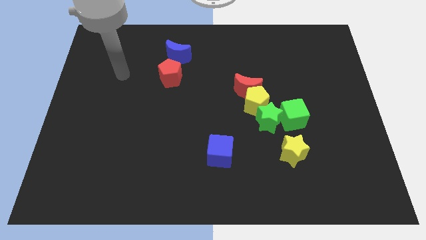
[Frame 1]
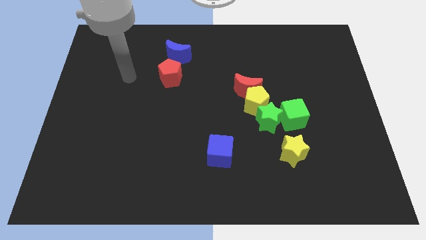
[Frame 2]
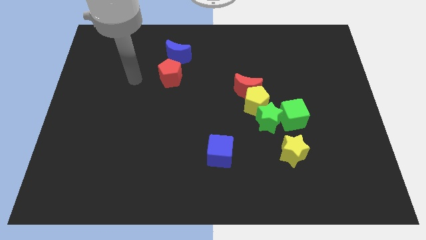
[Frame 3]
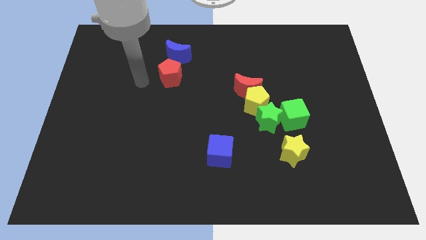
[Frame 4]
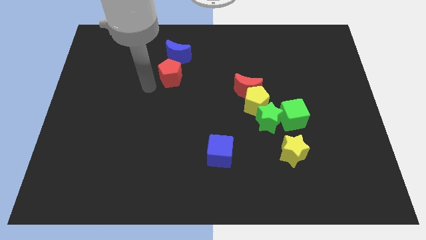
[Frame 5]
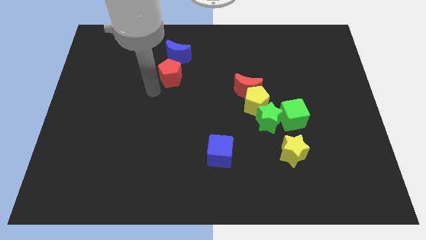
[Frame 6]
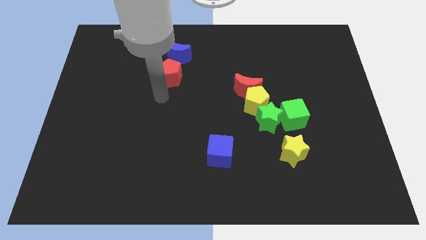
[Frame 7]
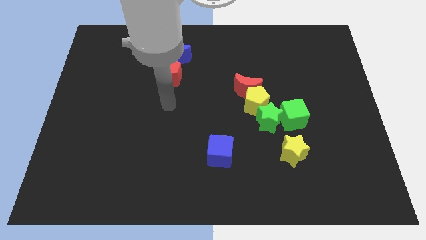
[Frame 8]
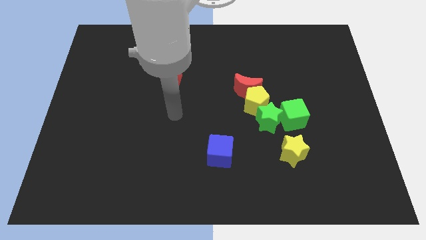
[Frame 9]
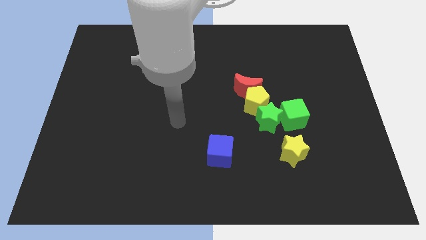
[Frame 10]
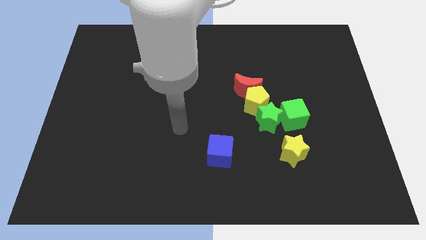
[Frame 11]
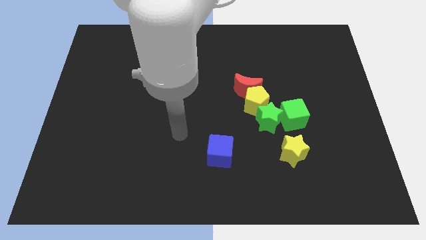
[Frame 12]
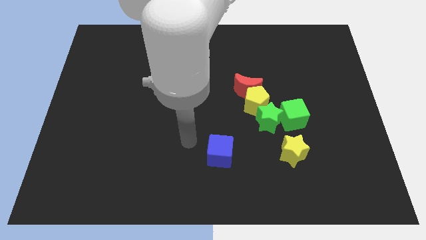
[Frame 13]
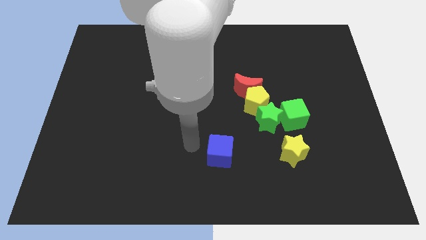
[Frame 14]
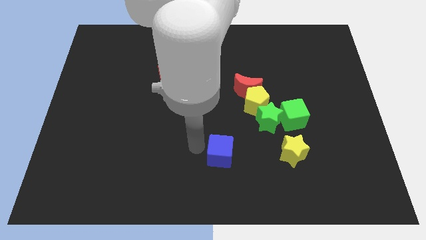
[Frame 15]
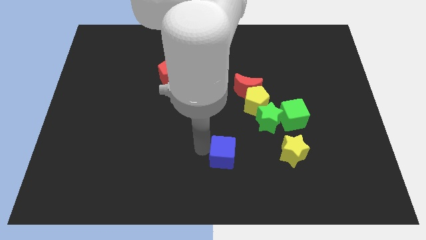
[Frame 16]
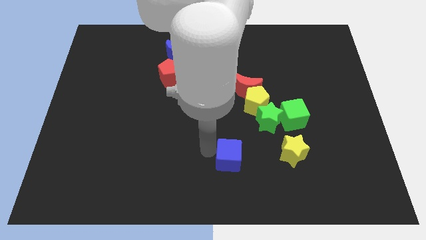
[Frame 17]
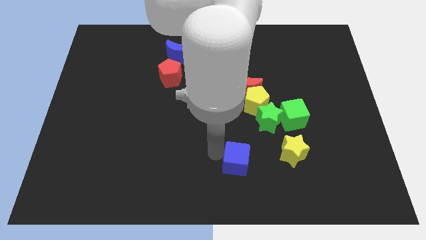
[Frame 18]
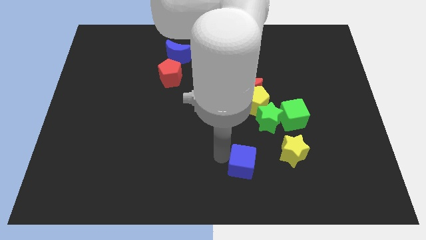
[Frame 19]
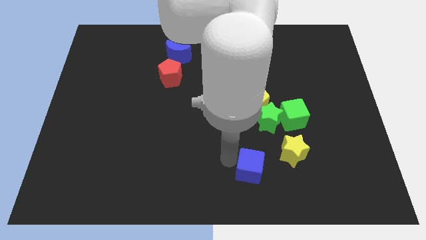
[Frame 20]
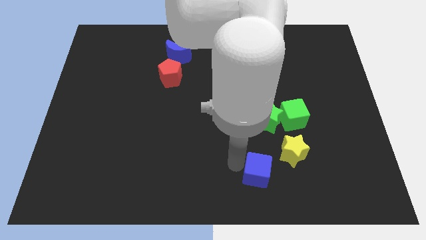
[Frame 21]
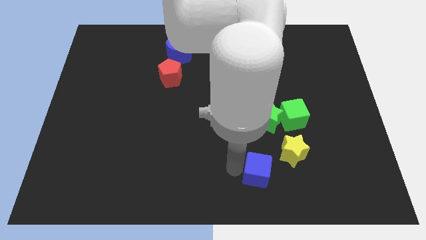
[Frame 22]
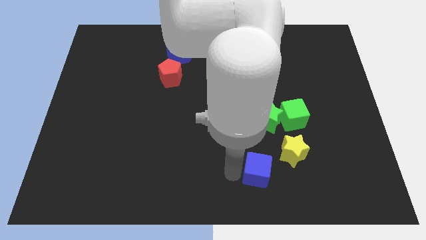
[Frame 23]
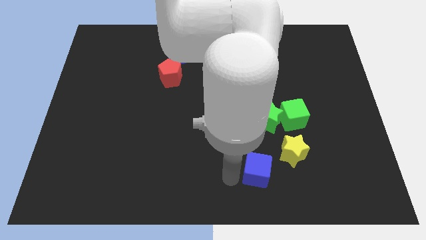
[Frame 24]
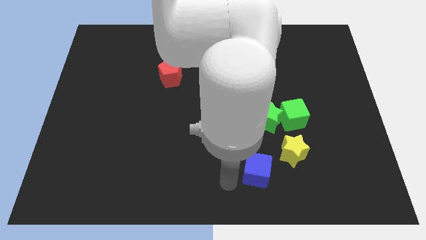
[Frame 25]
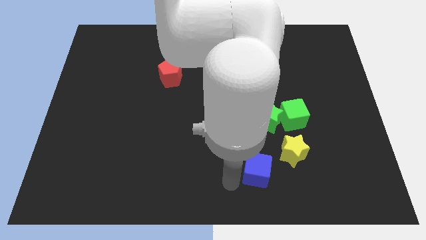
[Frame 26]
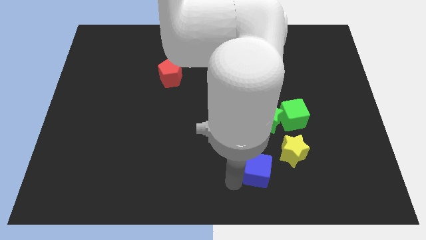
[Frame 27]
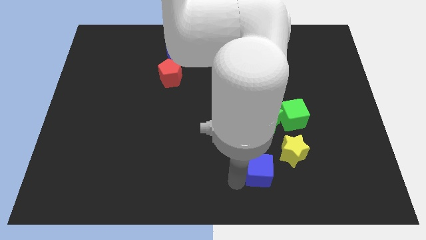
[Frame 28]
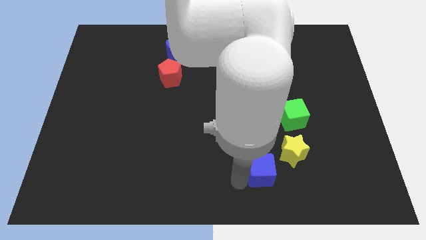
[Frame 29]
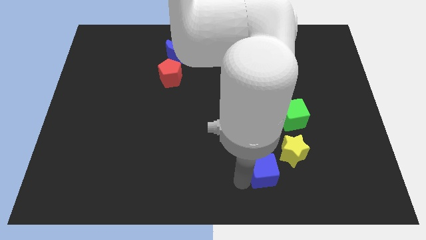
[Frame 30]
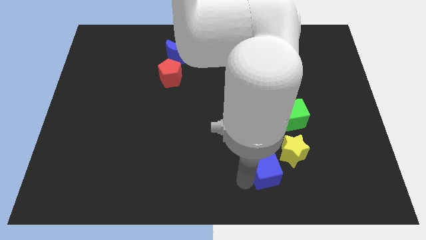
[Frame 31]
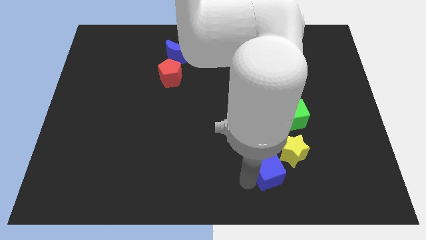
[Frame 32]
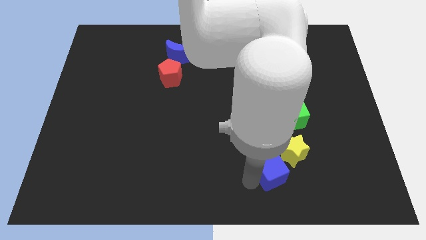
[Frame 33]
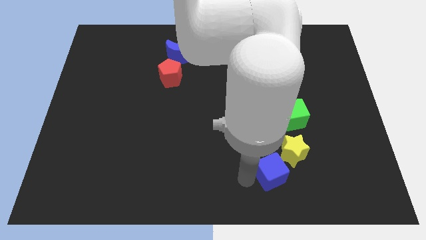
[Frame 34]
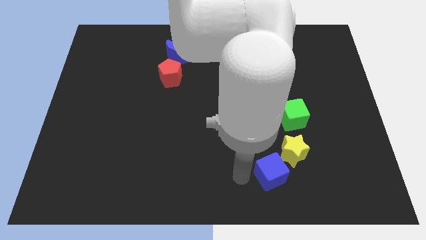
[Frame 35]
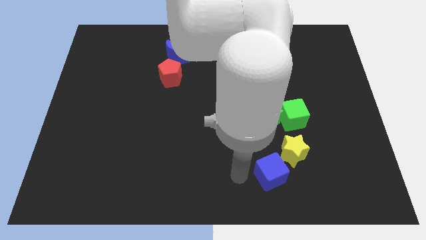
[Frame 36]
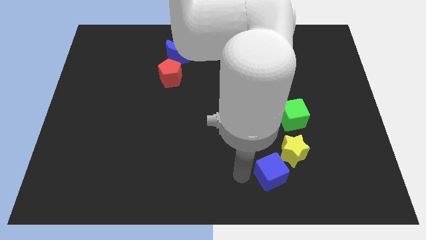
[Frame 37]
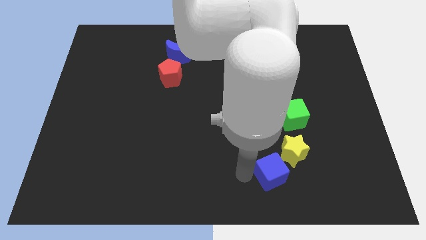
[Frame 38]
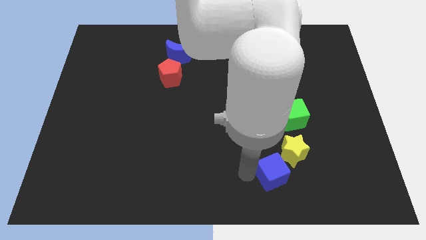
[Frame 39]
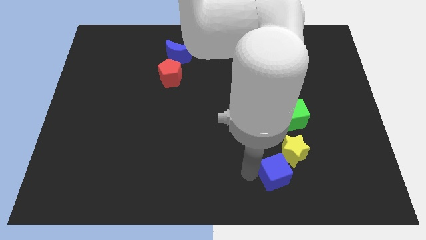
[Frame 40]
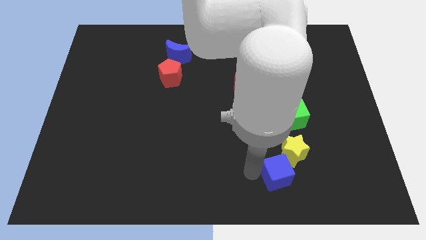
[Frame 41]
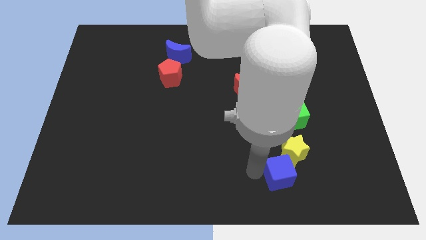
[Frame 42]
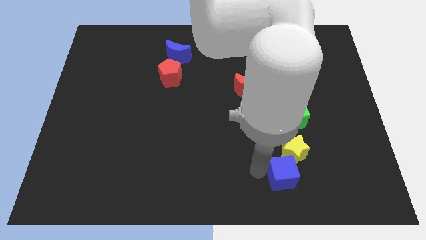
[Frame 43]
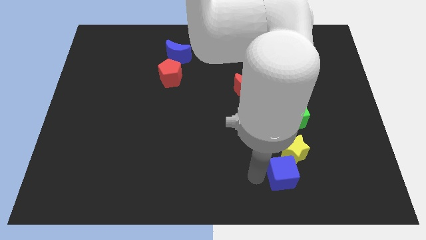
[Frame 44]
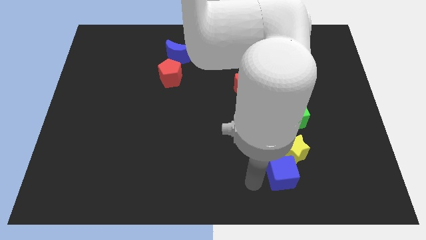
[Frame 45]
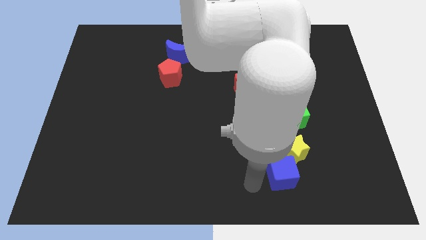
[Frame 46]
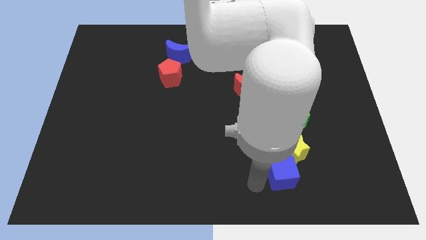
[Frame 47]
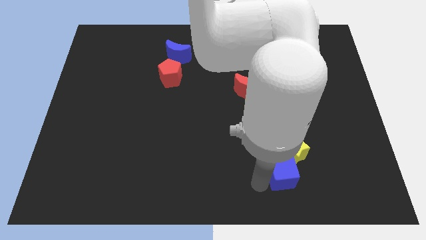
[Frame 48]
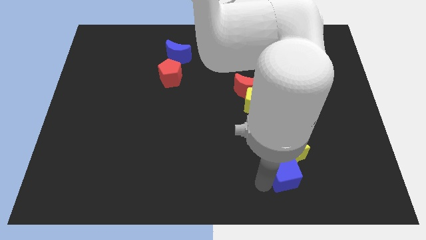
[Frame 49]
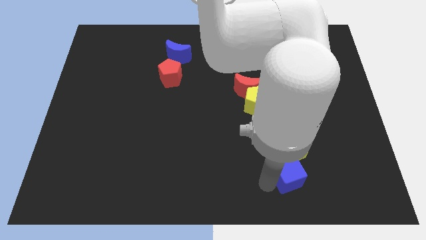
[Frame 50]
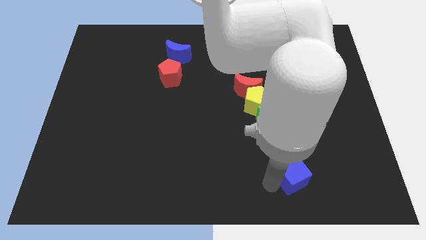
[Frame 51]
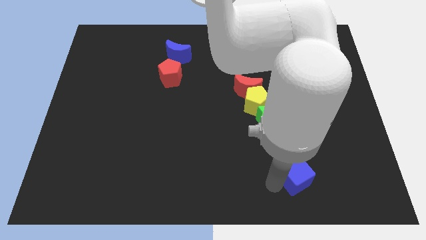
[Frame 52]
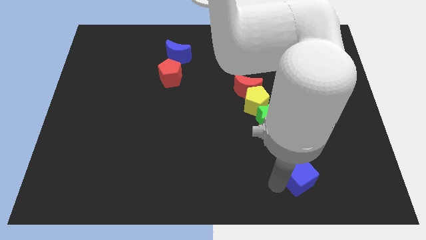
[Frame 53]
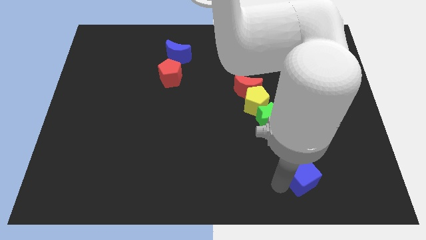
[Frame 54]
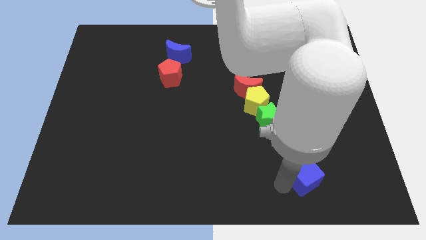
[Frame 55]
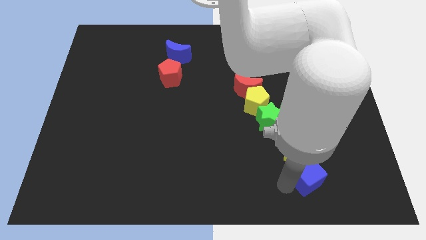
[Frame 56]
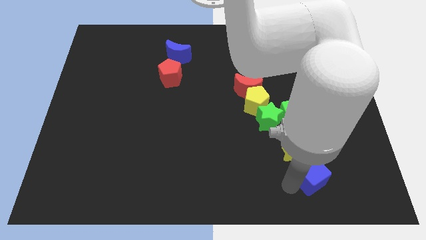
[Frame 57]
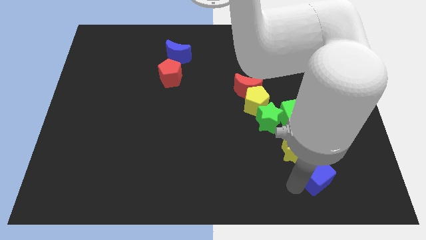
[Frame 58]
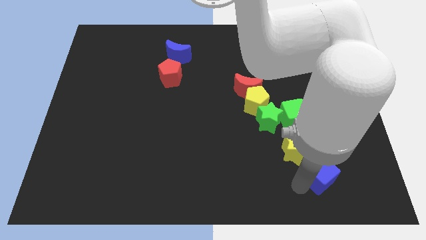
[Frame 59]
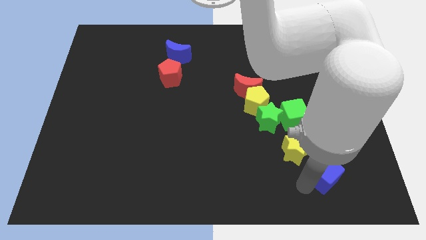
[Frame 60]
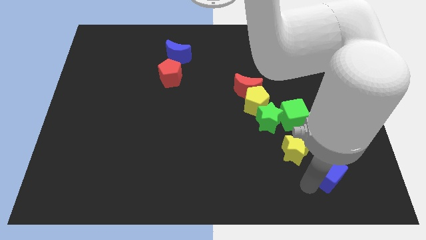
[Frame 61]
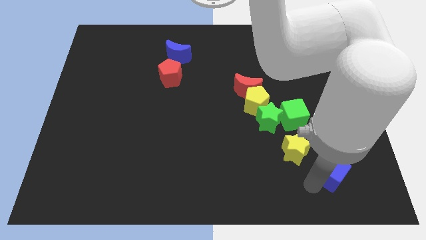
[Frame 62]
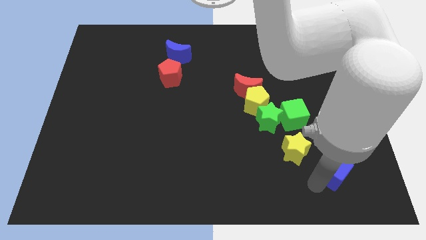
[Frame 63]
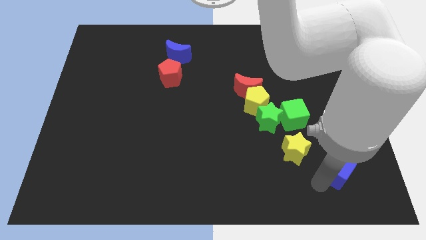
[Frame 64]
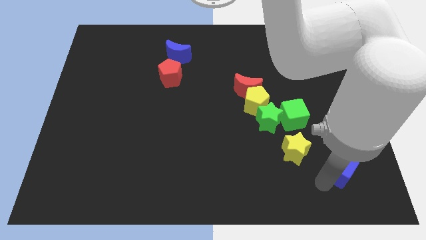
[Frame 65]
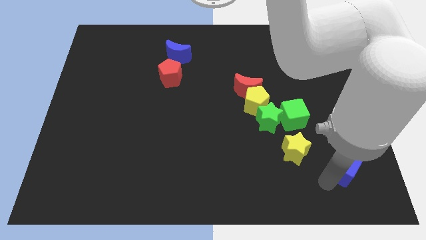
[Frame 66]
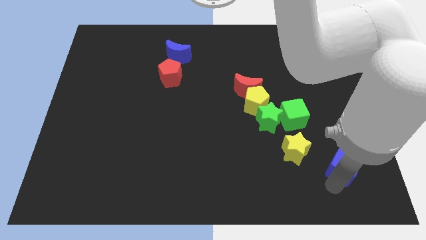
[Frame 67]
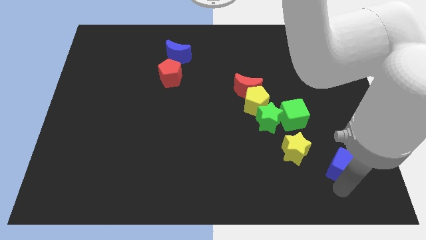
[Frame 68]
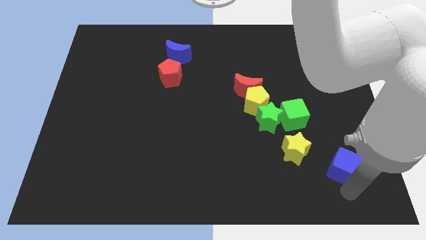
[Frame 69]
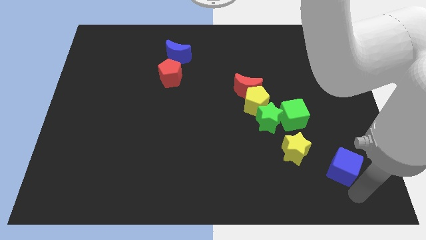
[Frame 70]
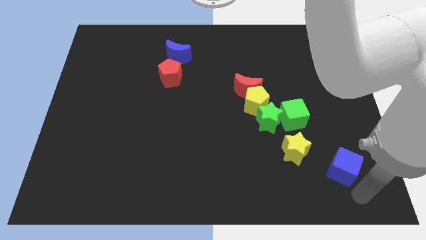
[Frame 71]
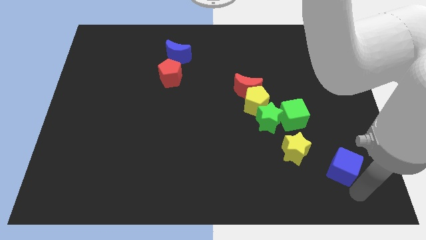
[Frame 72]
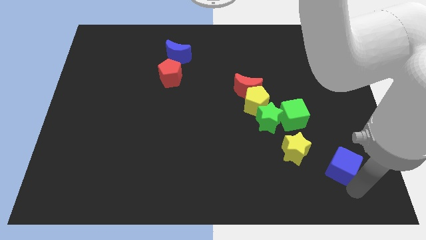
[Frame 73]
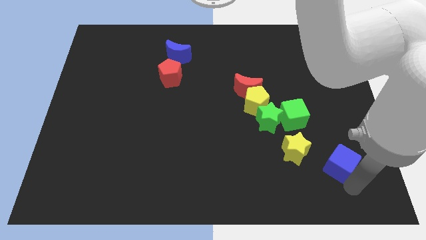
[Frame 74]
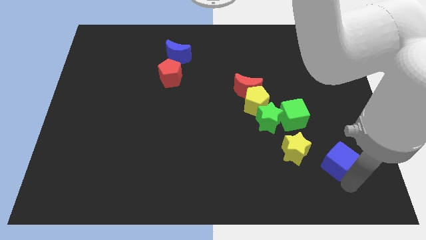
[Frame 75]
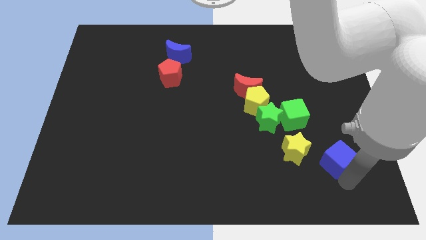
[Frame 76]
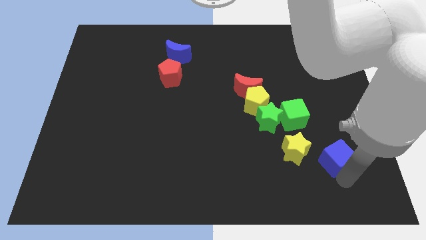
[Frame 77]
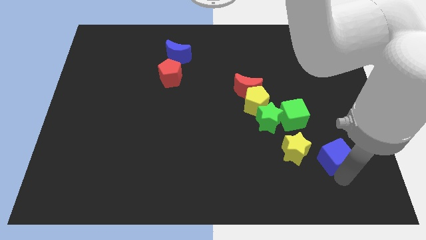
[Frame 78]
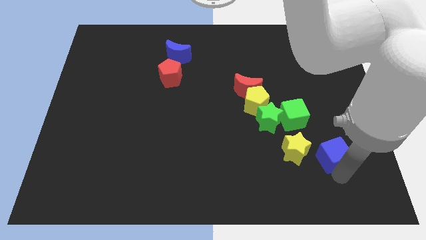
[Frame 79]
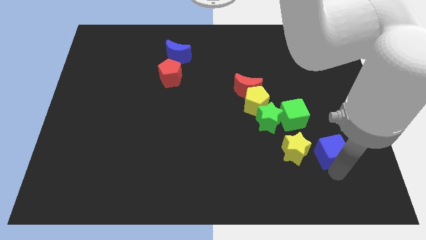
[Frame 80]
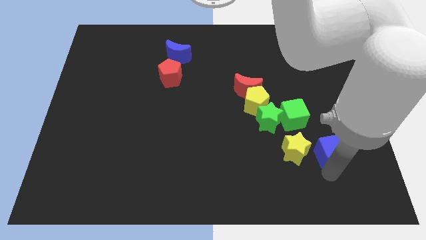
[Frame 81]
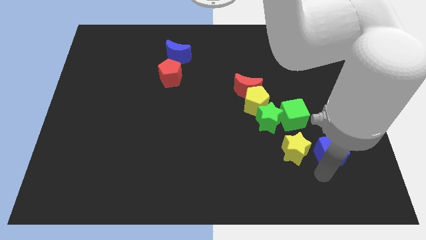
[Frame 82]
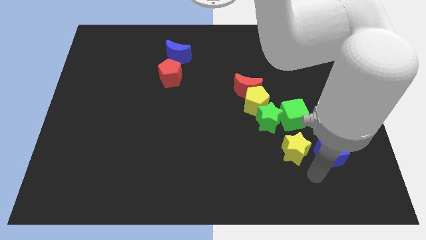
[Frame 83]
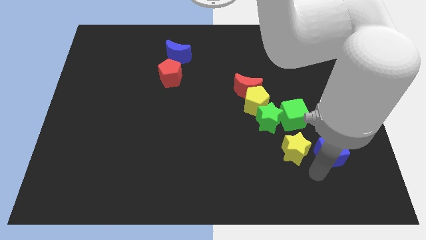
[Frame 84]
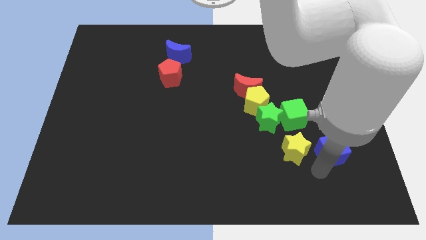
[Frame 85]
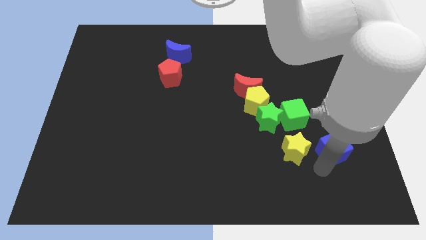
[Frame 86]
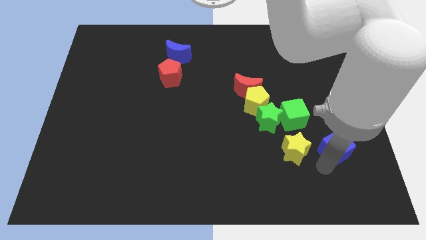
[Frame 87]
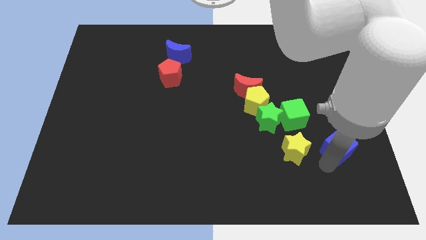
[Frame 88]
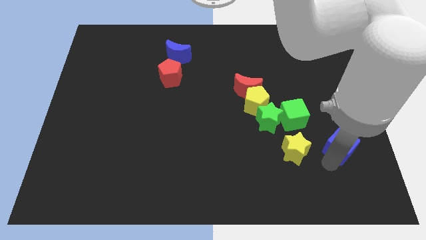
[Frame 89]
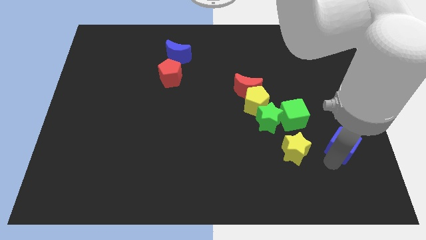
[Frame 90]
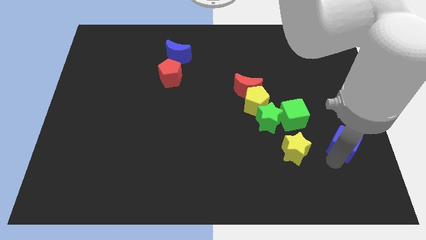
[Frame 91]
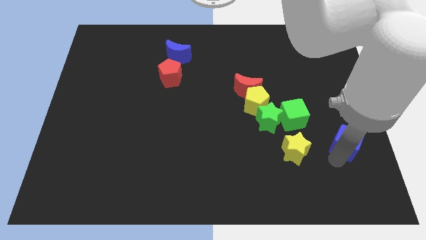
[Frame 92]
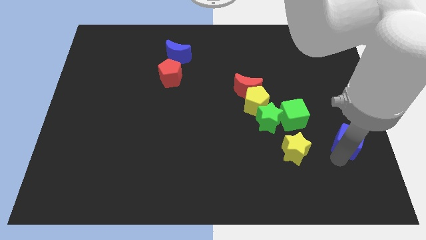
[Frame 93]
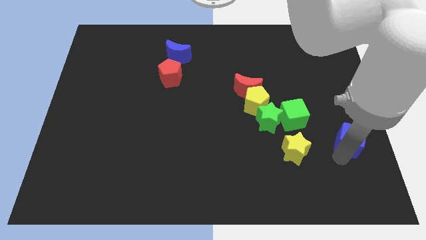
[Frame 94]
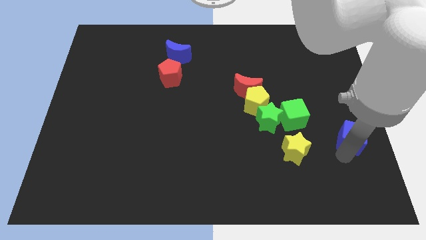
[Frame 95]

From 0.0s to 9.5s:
move the blue cube to the right side
